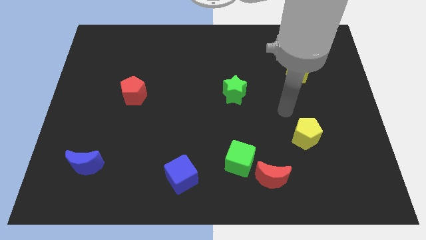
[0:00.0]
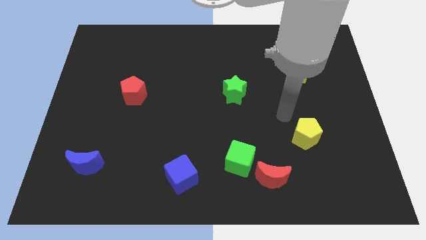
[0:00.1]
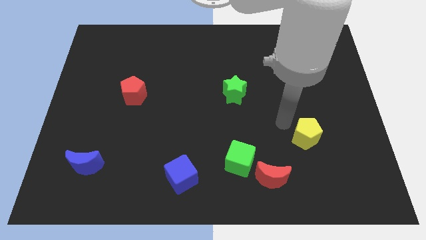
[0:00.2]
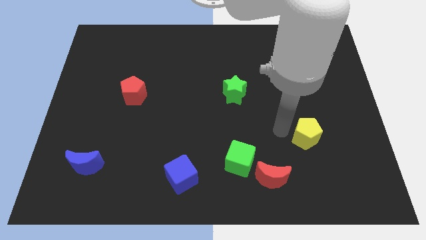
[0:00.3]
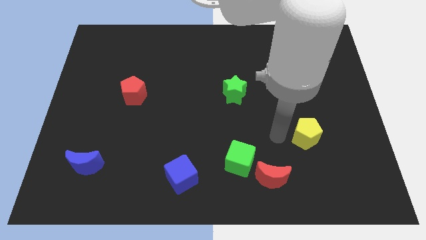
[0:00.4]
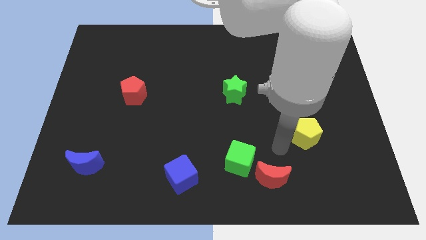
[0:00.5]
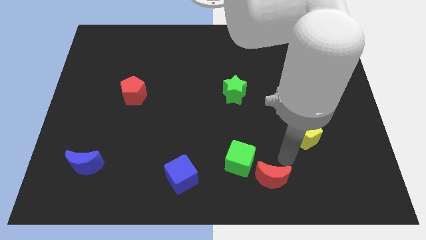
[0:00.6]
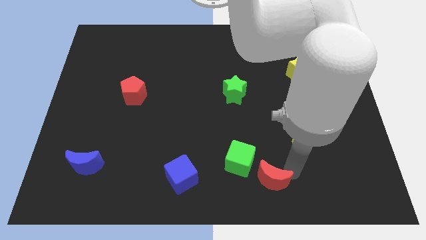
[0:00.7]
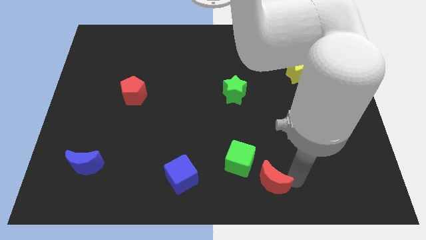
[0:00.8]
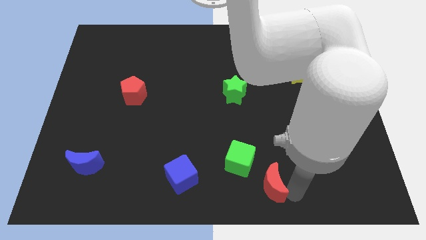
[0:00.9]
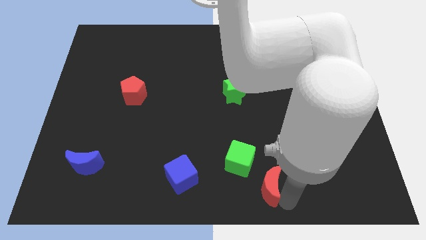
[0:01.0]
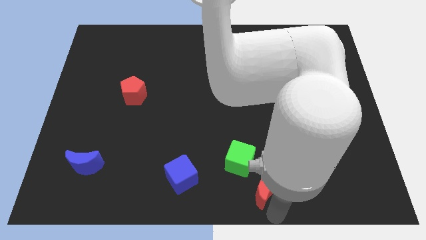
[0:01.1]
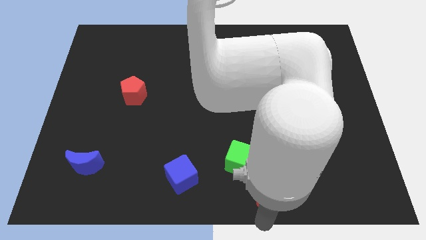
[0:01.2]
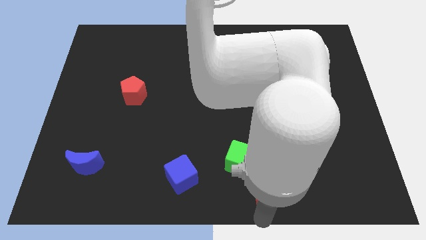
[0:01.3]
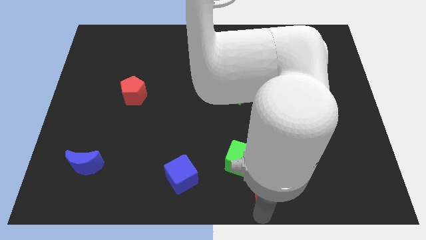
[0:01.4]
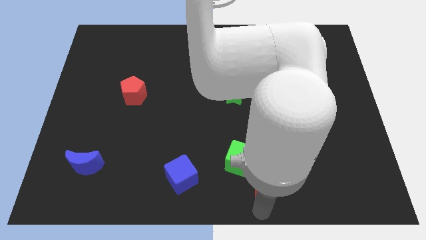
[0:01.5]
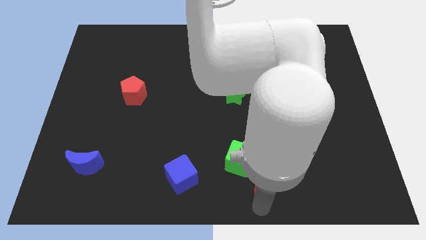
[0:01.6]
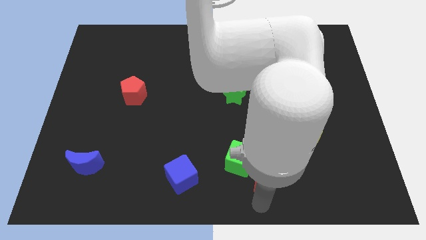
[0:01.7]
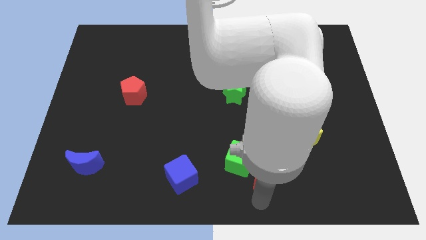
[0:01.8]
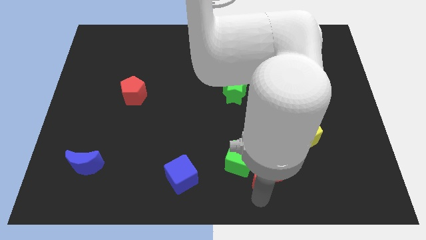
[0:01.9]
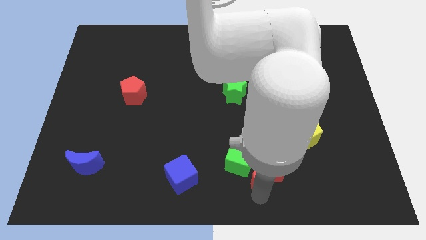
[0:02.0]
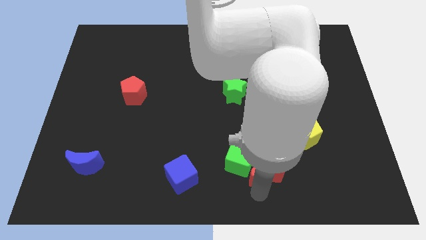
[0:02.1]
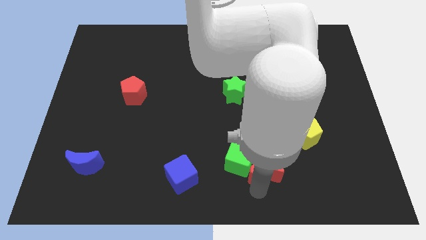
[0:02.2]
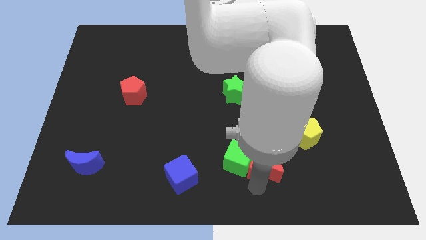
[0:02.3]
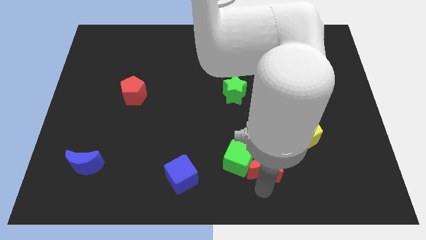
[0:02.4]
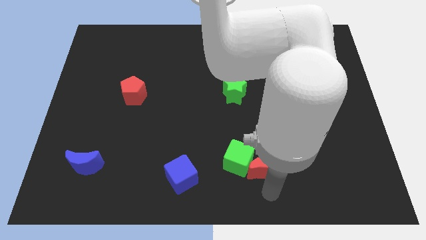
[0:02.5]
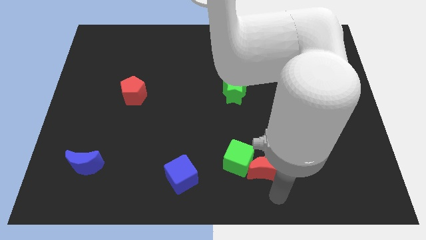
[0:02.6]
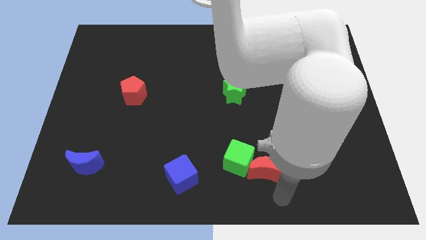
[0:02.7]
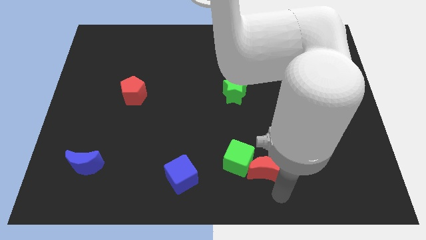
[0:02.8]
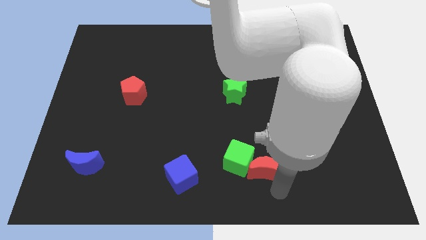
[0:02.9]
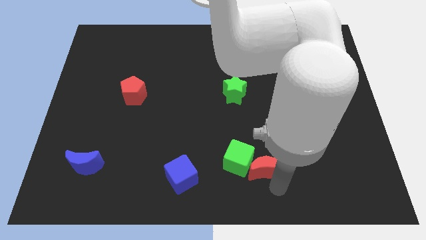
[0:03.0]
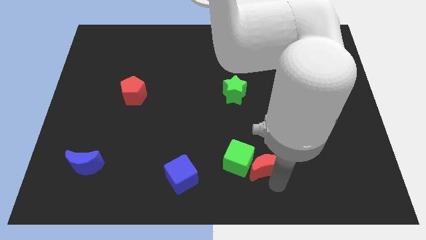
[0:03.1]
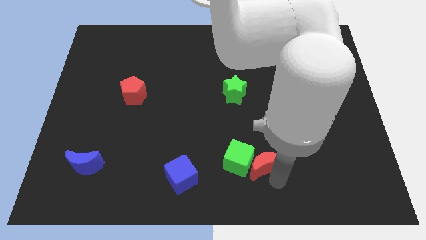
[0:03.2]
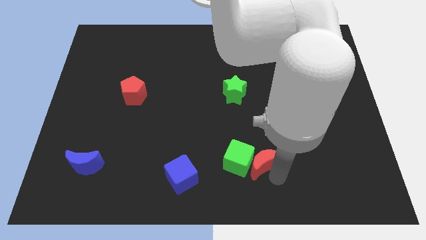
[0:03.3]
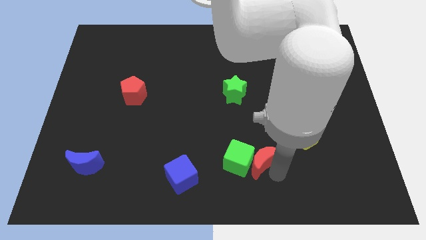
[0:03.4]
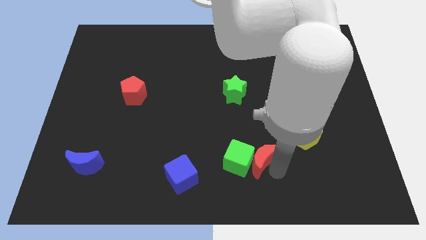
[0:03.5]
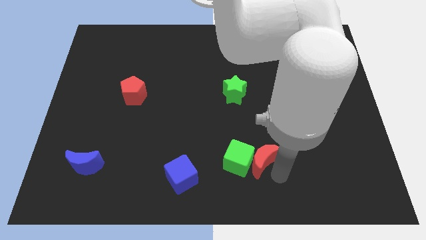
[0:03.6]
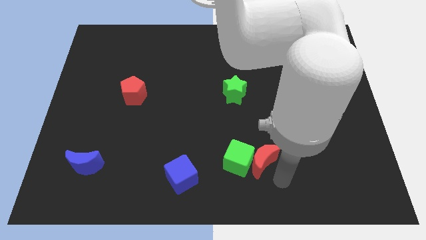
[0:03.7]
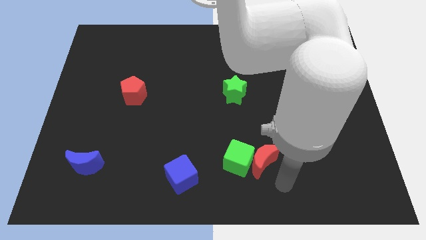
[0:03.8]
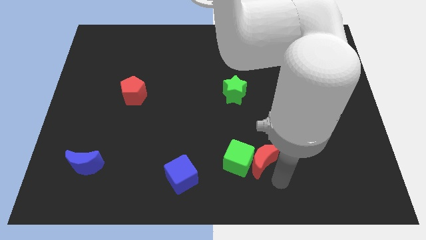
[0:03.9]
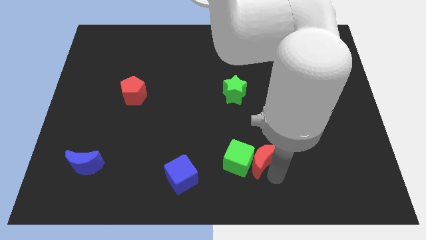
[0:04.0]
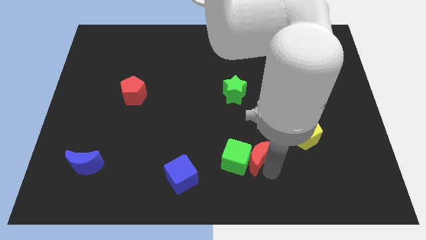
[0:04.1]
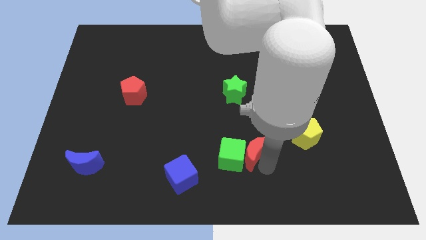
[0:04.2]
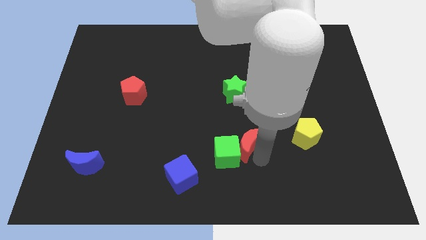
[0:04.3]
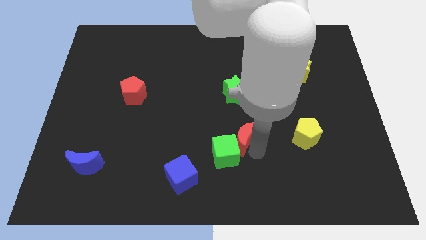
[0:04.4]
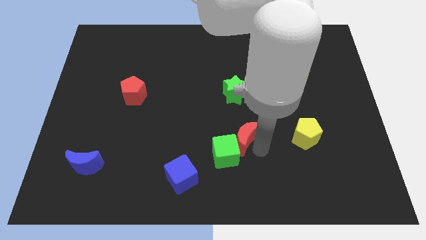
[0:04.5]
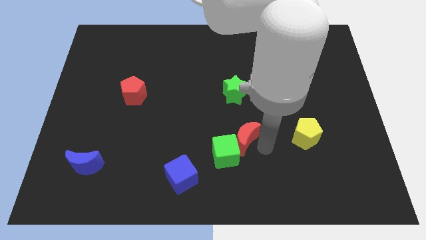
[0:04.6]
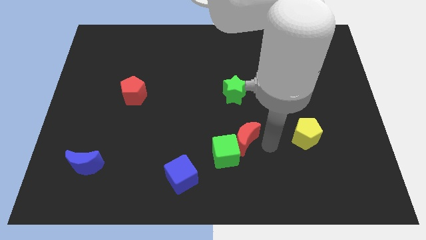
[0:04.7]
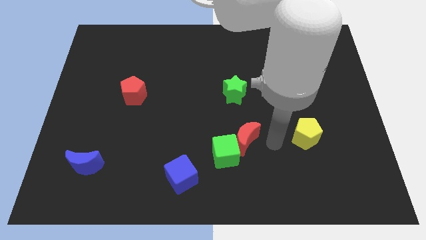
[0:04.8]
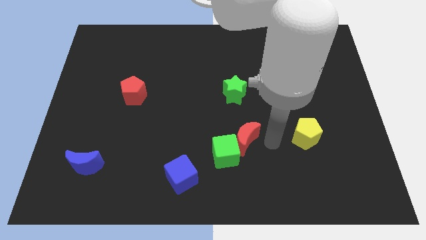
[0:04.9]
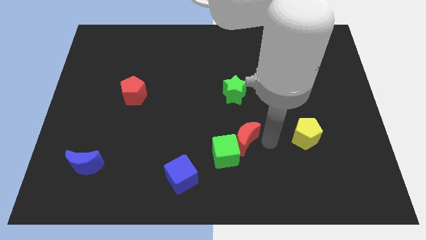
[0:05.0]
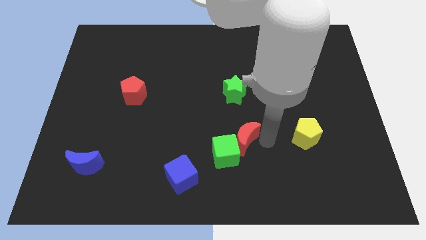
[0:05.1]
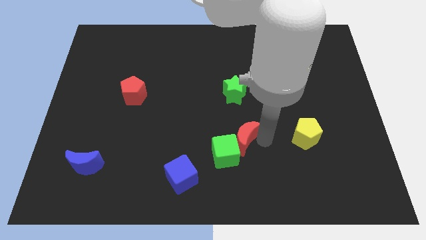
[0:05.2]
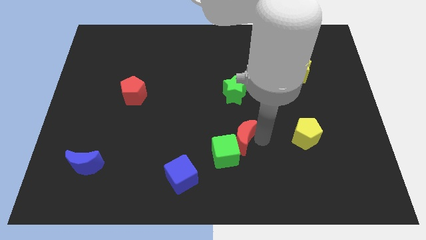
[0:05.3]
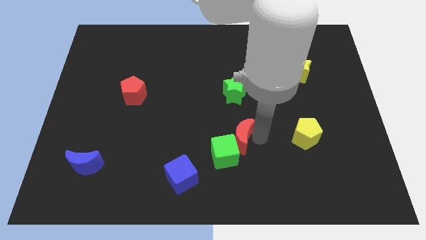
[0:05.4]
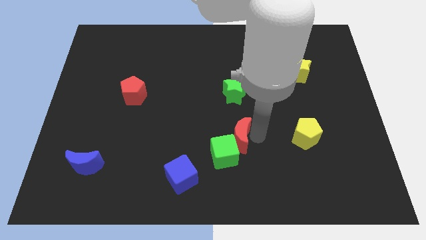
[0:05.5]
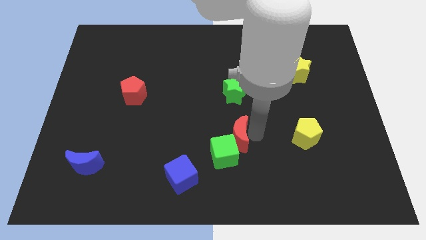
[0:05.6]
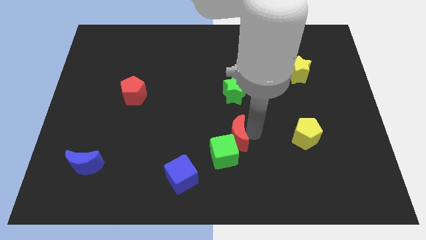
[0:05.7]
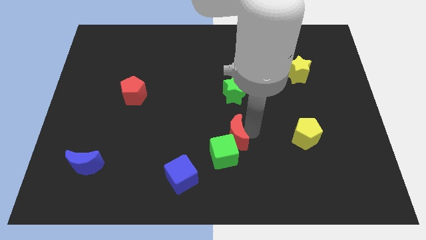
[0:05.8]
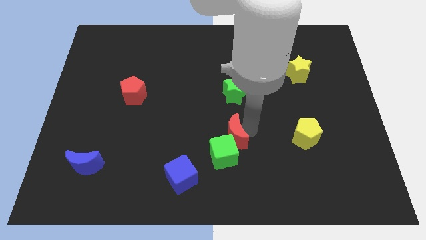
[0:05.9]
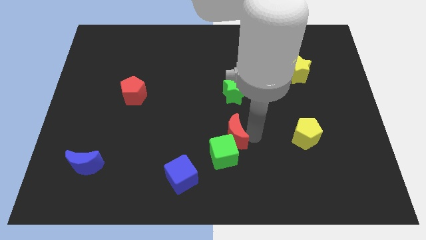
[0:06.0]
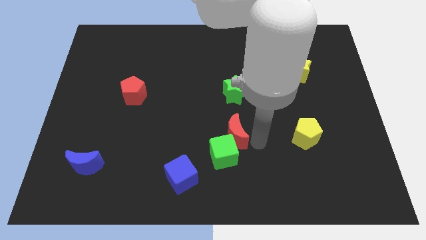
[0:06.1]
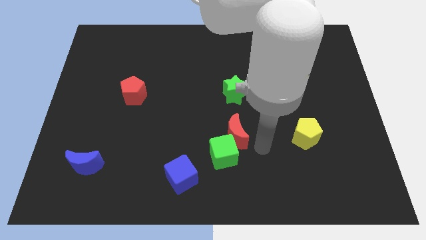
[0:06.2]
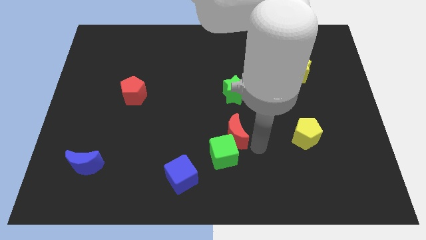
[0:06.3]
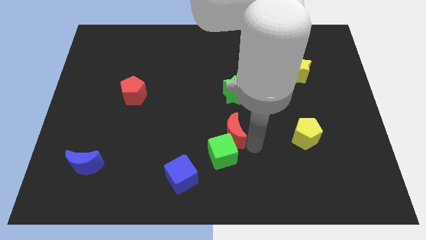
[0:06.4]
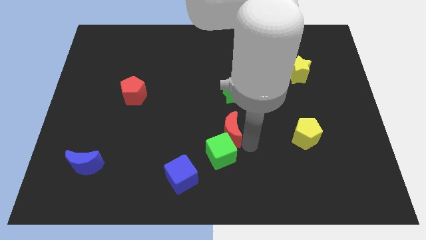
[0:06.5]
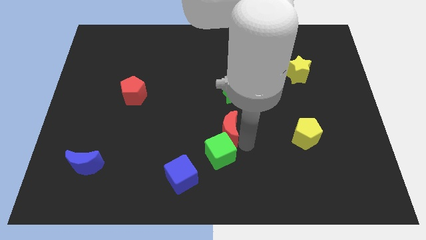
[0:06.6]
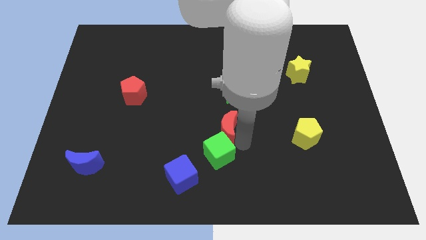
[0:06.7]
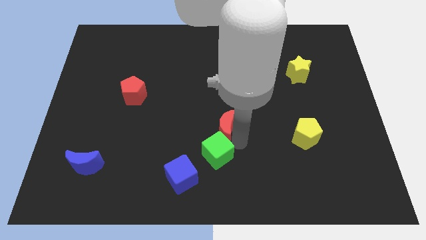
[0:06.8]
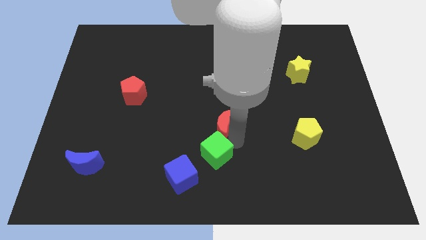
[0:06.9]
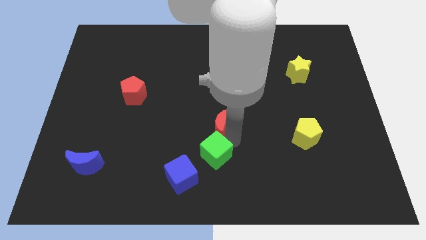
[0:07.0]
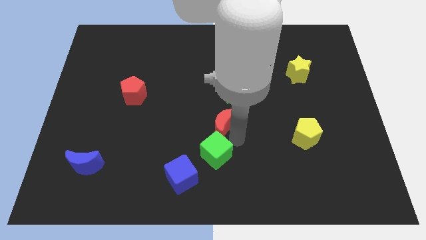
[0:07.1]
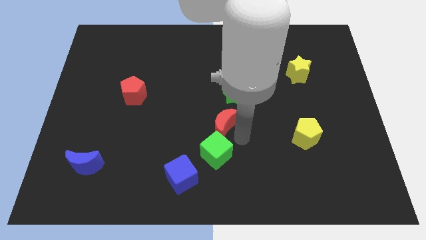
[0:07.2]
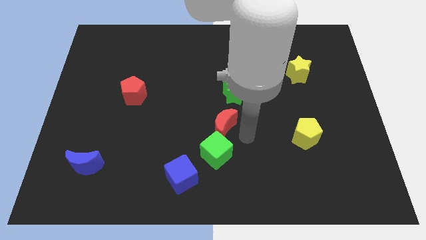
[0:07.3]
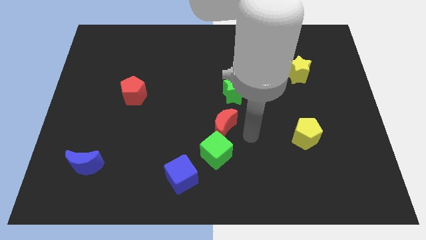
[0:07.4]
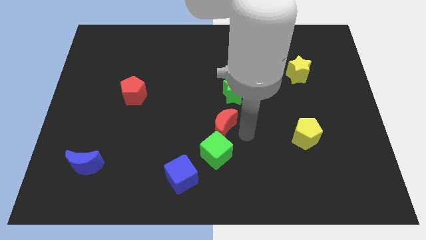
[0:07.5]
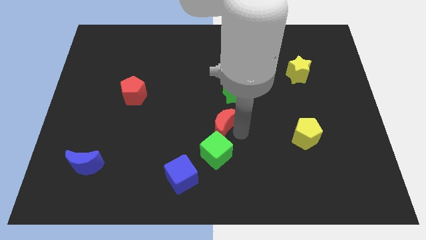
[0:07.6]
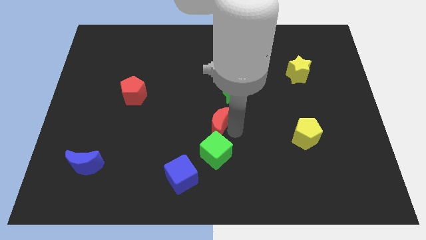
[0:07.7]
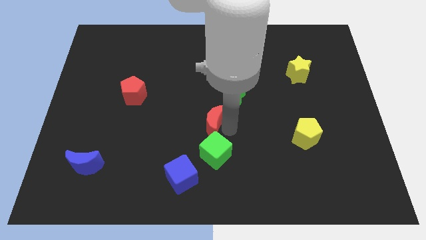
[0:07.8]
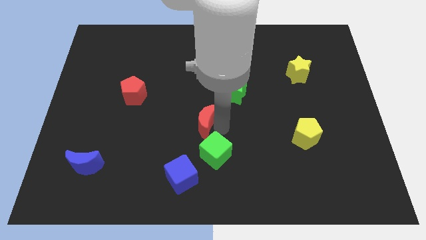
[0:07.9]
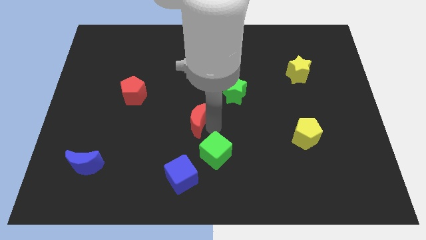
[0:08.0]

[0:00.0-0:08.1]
slide the red moon upwards and left diagonally
